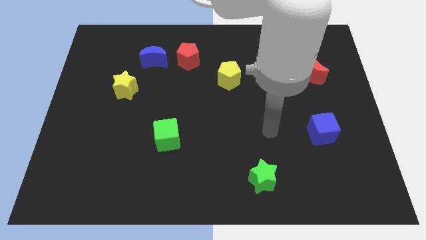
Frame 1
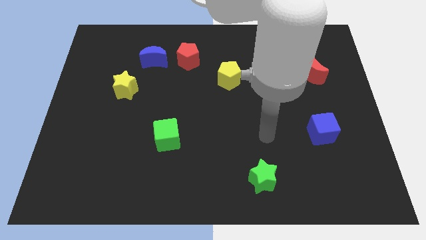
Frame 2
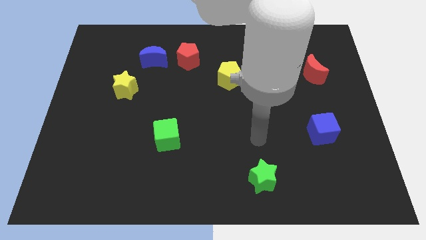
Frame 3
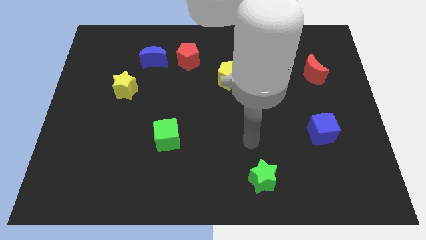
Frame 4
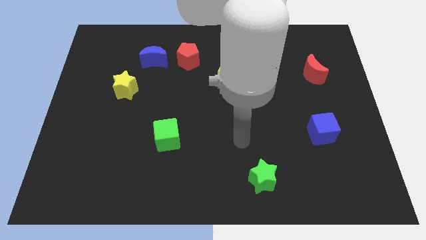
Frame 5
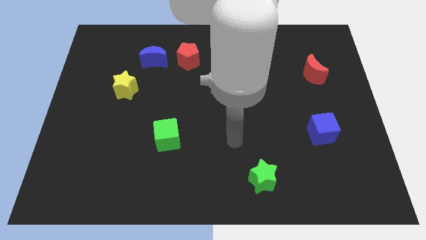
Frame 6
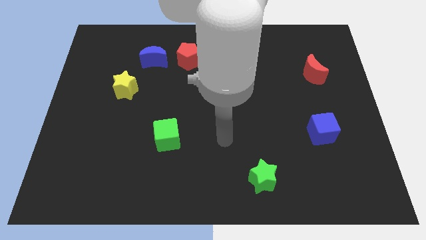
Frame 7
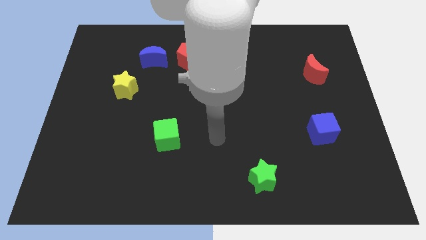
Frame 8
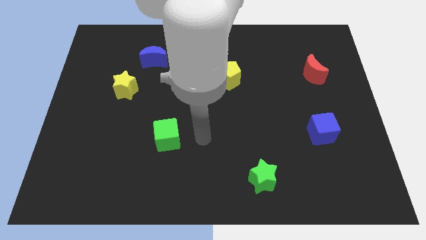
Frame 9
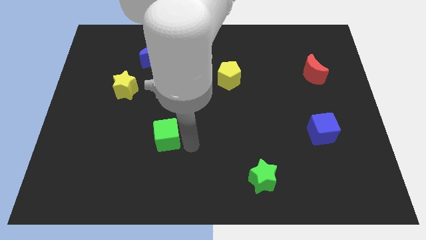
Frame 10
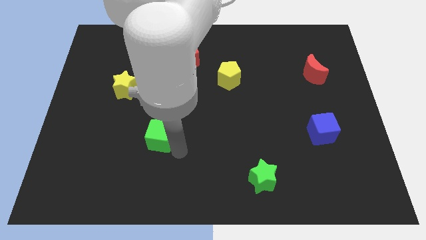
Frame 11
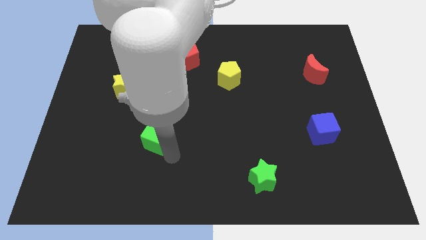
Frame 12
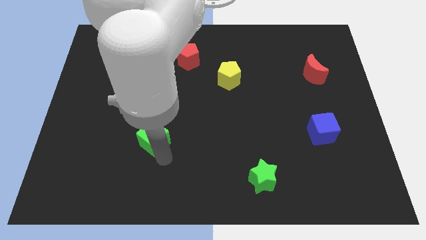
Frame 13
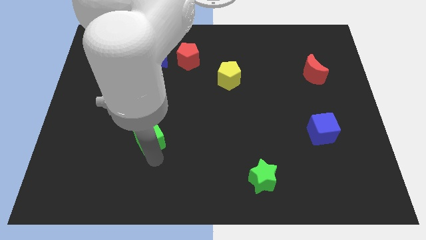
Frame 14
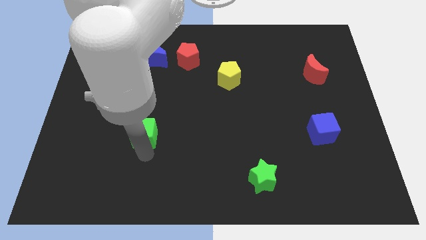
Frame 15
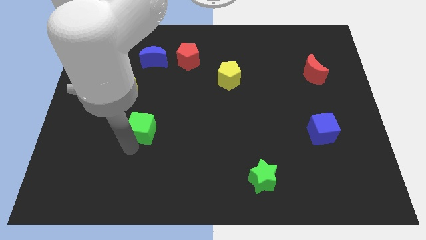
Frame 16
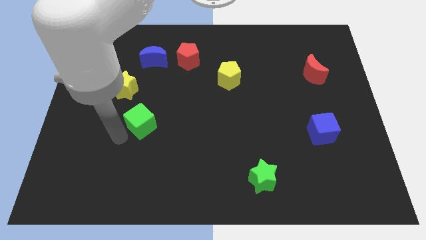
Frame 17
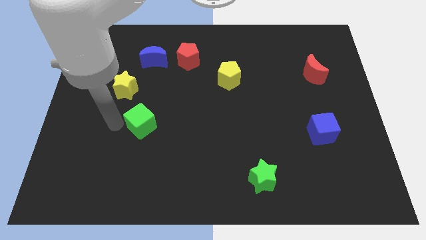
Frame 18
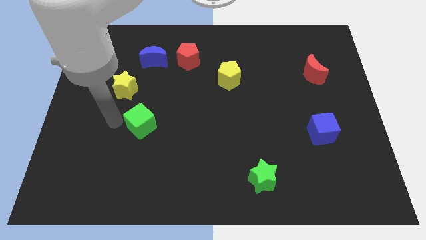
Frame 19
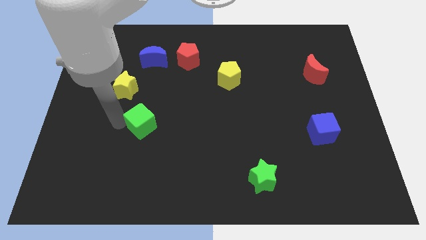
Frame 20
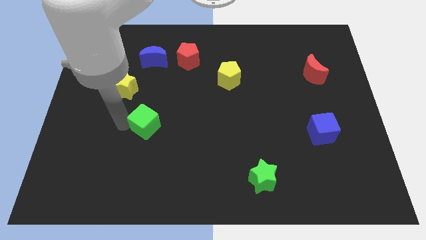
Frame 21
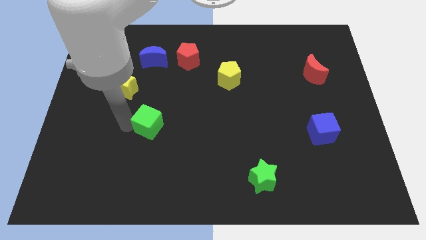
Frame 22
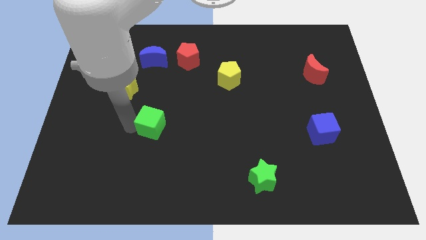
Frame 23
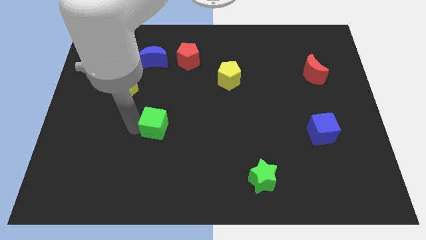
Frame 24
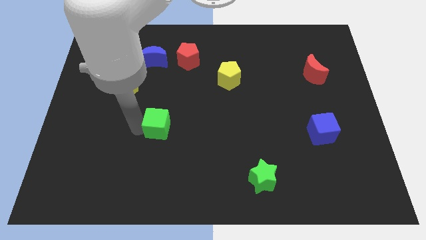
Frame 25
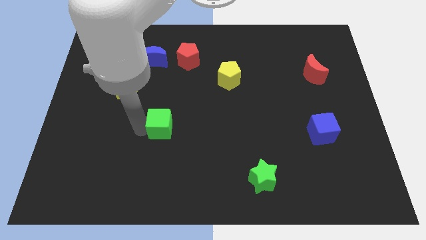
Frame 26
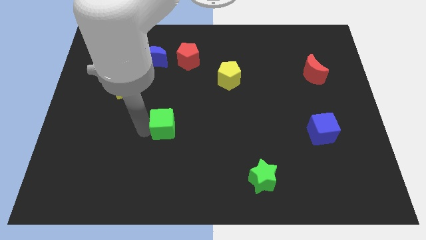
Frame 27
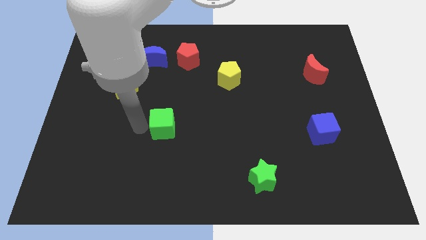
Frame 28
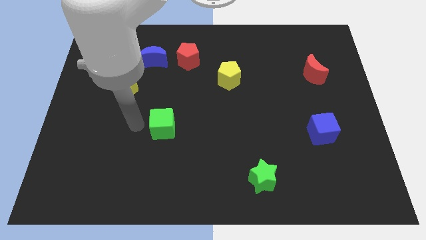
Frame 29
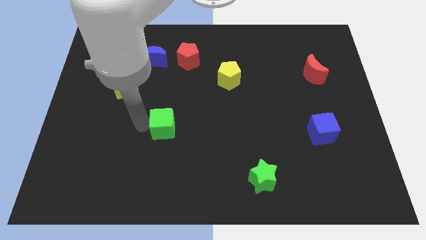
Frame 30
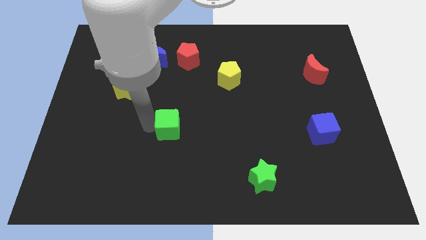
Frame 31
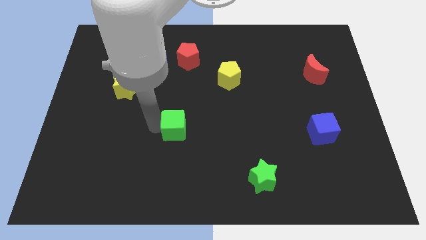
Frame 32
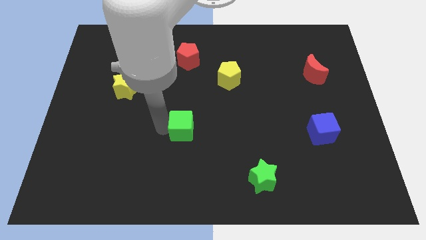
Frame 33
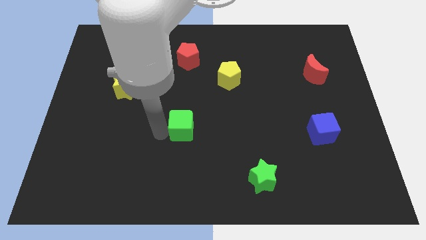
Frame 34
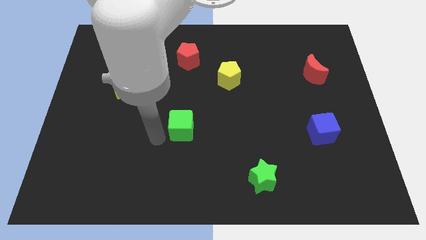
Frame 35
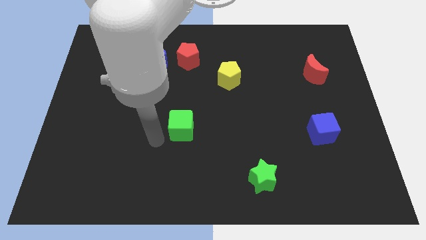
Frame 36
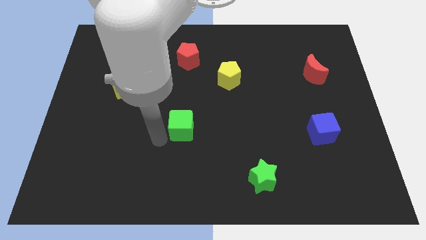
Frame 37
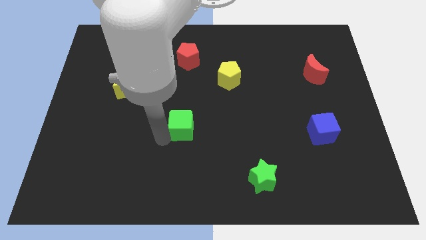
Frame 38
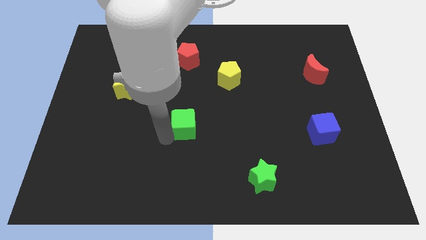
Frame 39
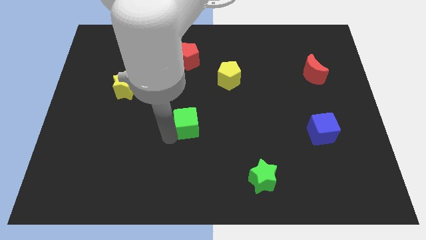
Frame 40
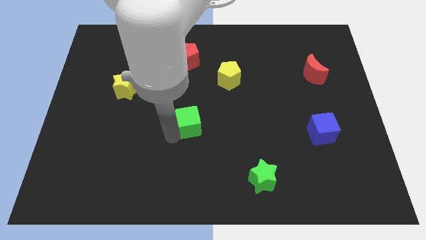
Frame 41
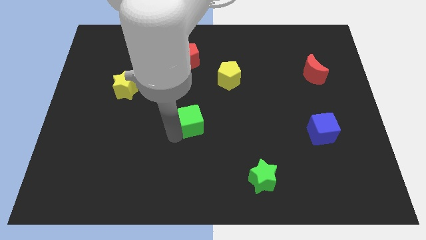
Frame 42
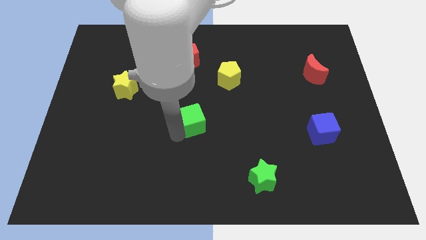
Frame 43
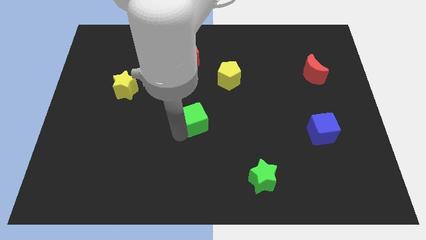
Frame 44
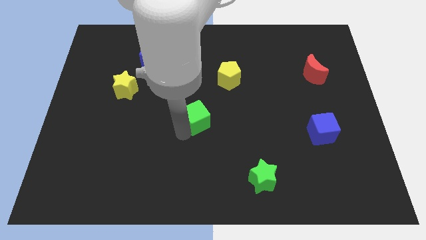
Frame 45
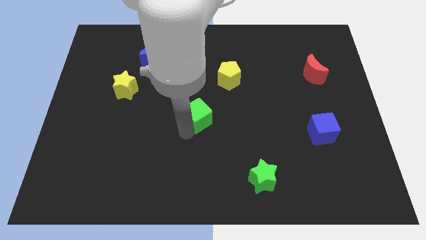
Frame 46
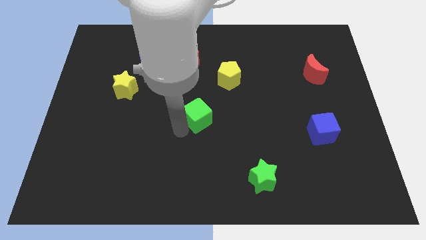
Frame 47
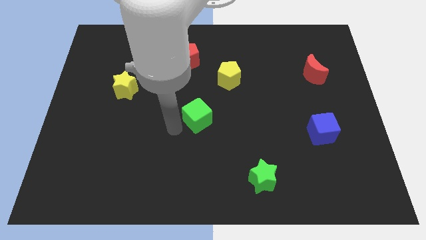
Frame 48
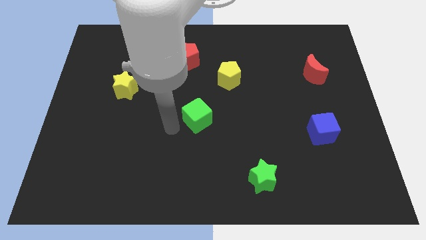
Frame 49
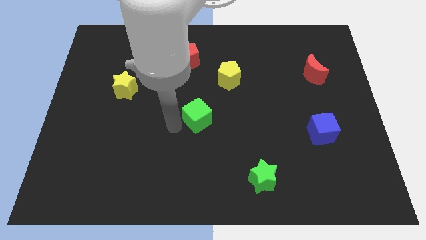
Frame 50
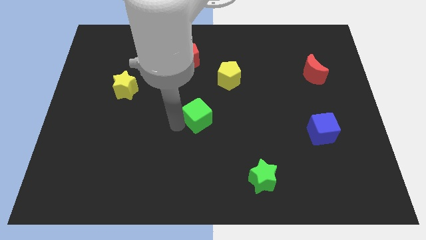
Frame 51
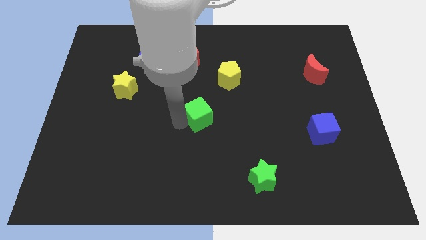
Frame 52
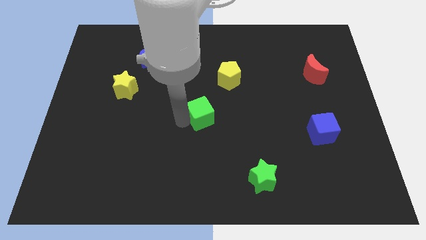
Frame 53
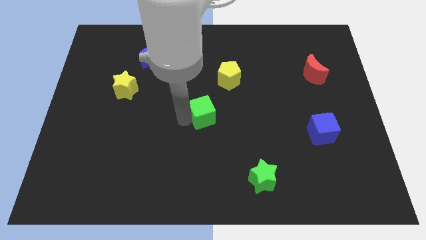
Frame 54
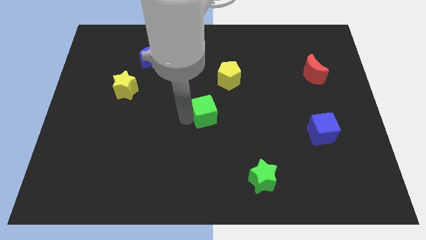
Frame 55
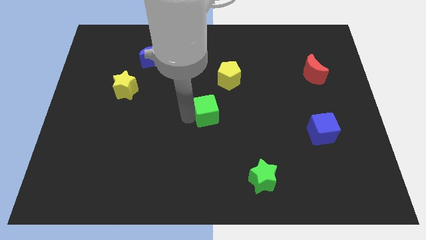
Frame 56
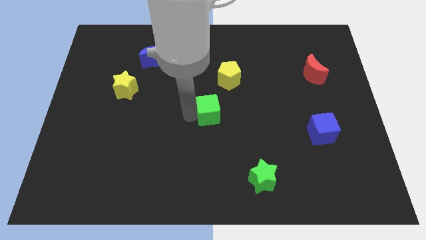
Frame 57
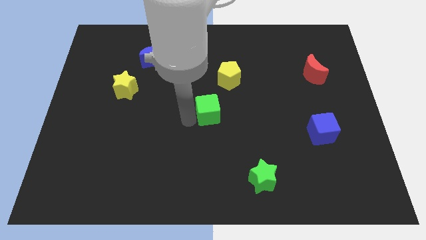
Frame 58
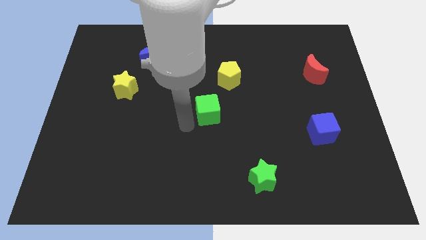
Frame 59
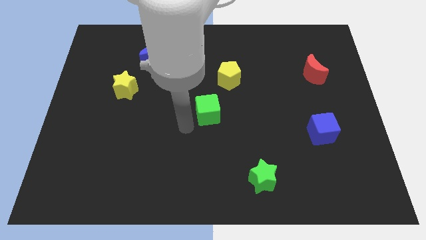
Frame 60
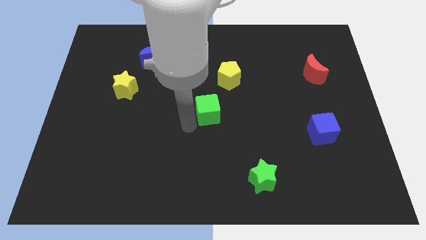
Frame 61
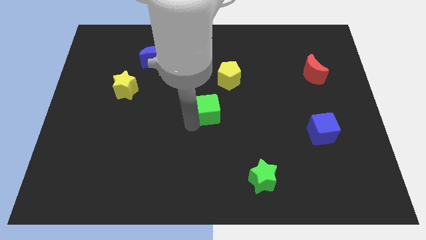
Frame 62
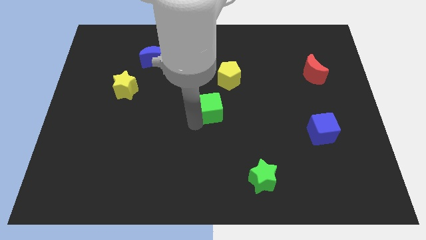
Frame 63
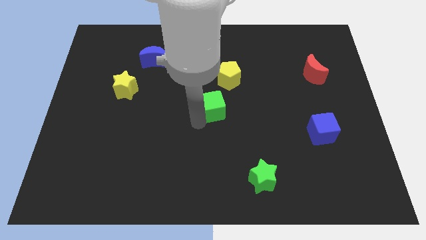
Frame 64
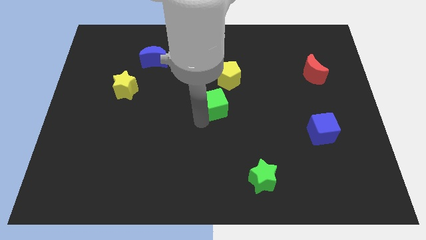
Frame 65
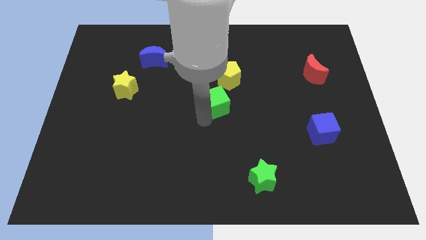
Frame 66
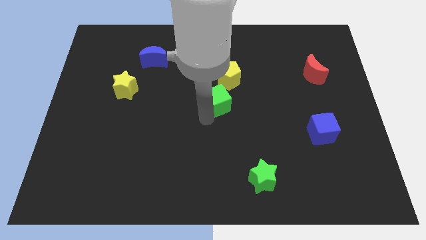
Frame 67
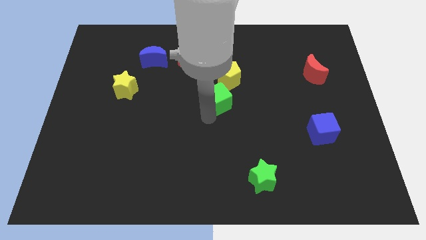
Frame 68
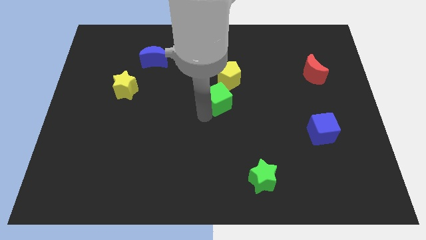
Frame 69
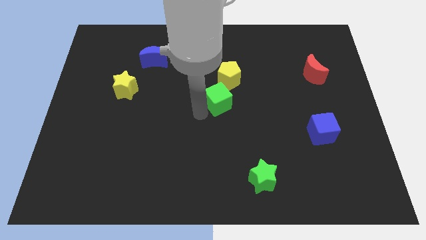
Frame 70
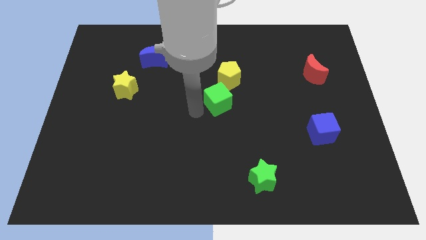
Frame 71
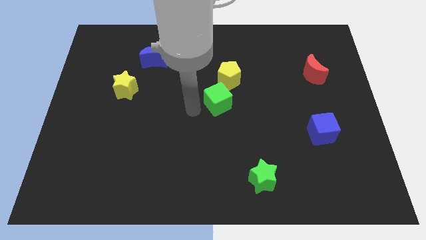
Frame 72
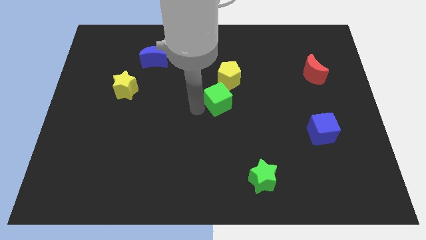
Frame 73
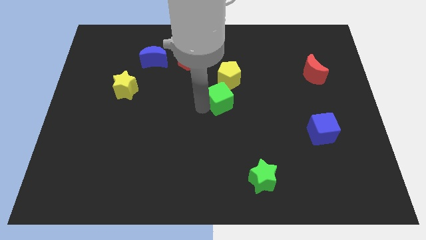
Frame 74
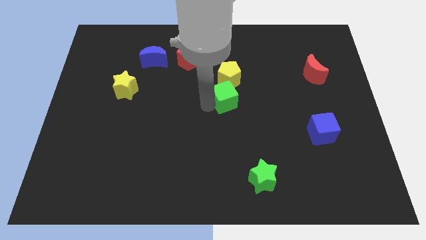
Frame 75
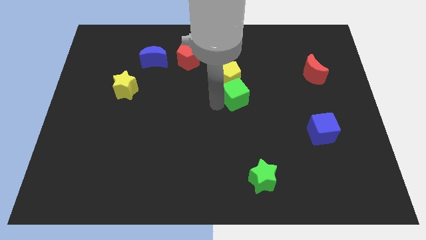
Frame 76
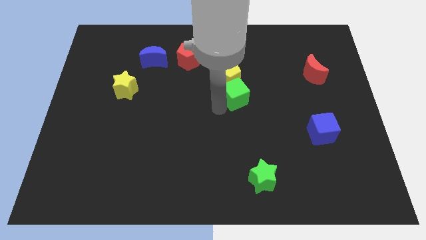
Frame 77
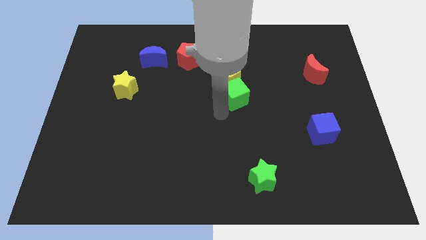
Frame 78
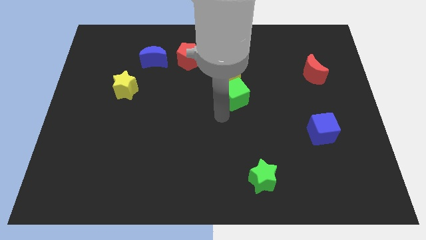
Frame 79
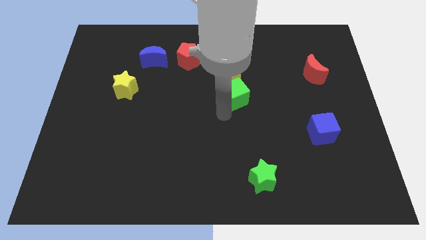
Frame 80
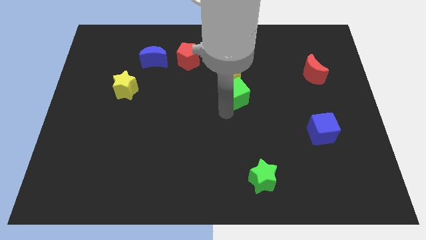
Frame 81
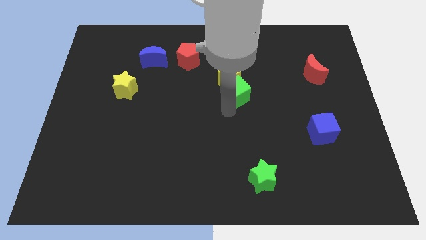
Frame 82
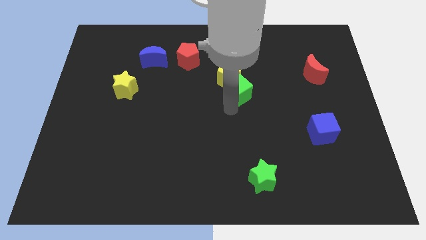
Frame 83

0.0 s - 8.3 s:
slide the green cube diagonally upwards and to the right
